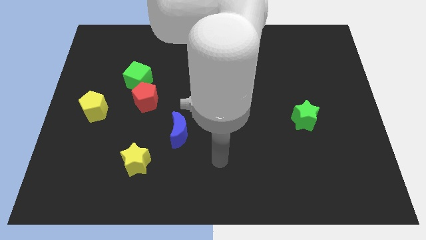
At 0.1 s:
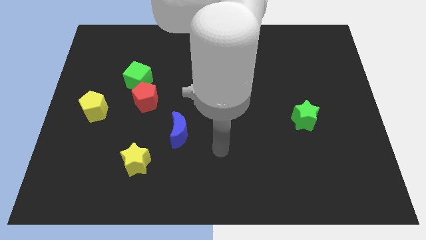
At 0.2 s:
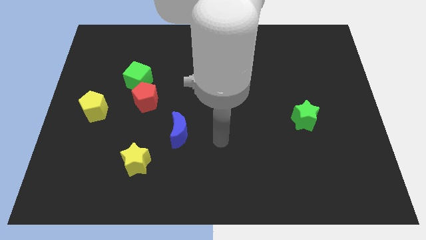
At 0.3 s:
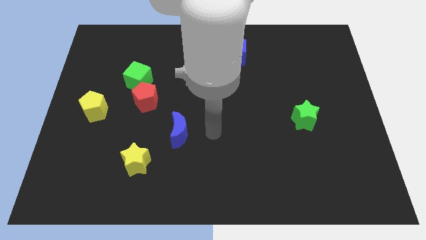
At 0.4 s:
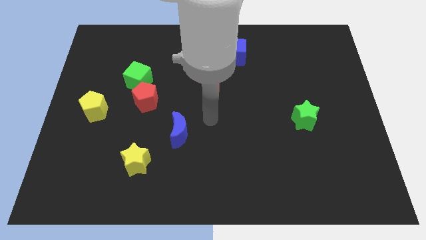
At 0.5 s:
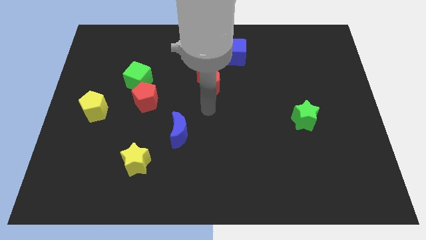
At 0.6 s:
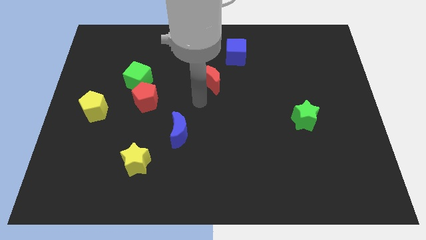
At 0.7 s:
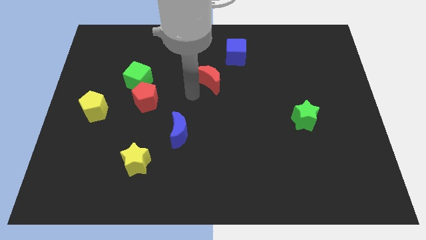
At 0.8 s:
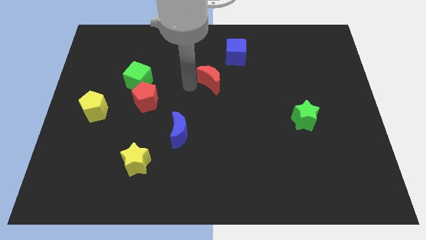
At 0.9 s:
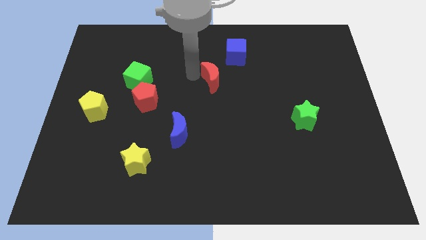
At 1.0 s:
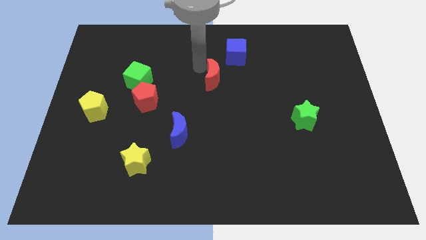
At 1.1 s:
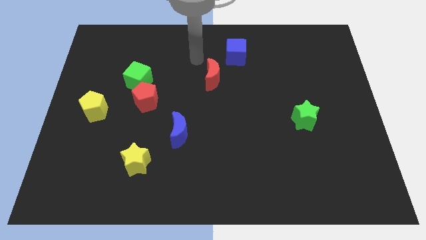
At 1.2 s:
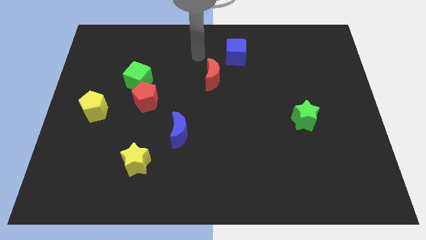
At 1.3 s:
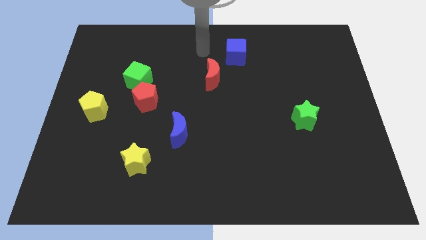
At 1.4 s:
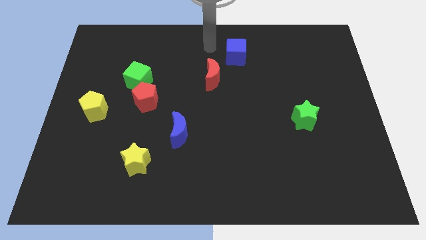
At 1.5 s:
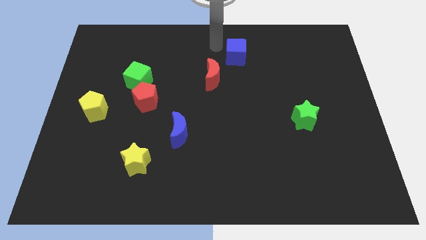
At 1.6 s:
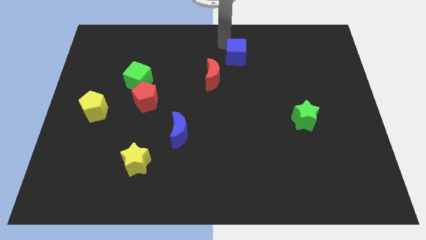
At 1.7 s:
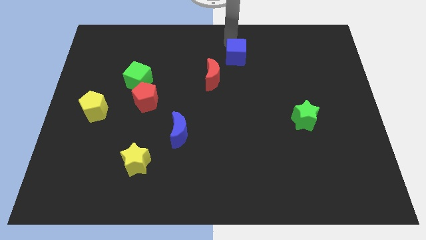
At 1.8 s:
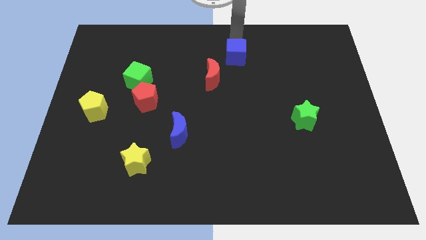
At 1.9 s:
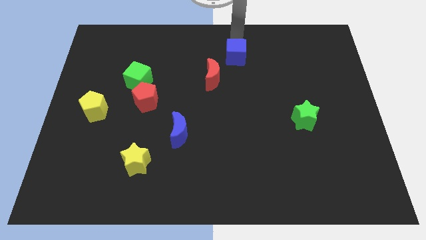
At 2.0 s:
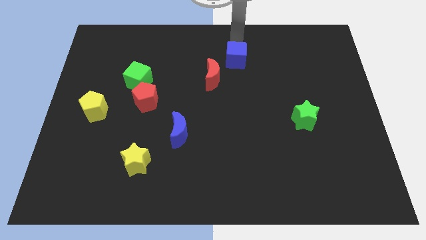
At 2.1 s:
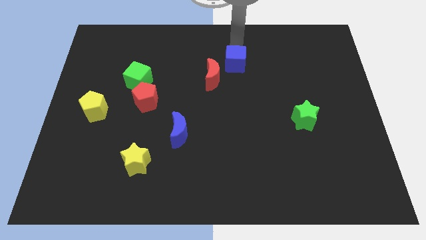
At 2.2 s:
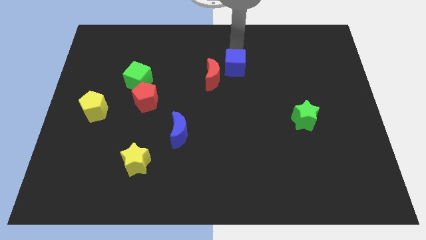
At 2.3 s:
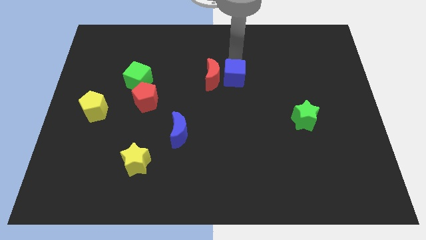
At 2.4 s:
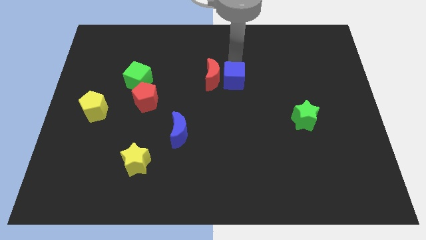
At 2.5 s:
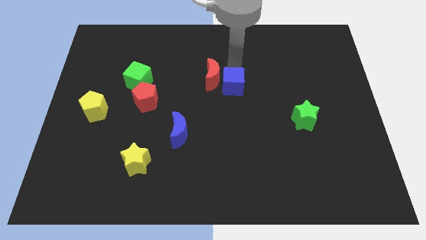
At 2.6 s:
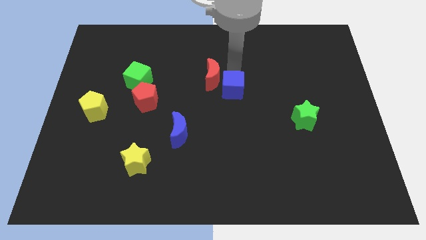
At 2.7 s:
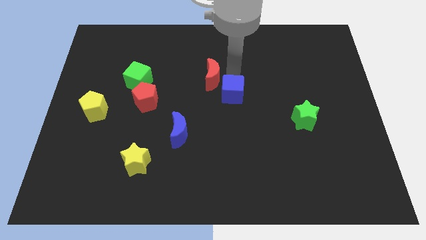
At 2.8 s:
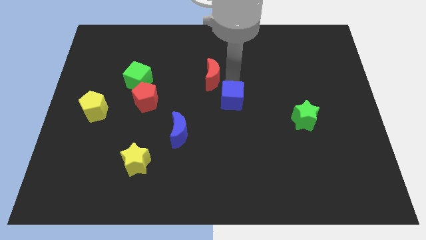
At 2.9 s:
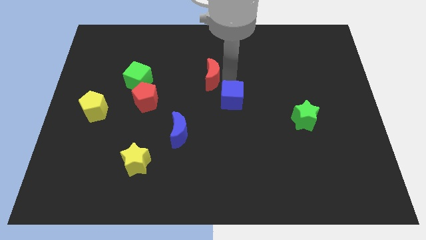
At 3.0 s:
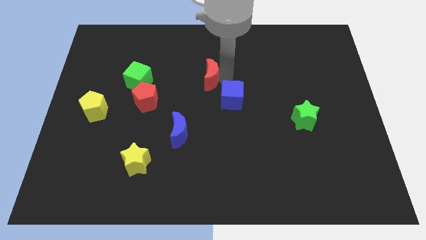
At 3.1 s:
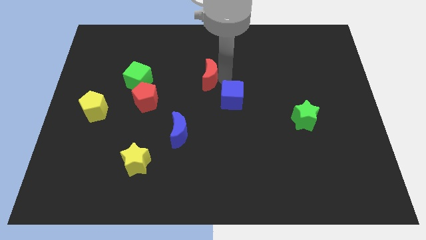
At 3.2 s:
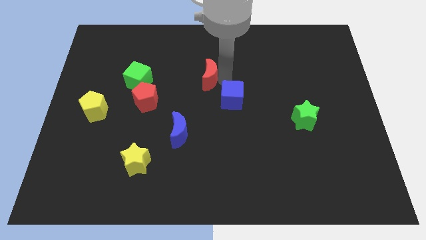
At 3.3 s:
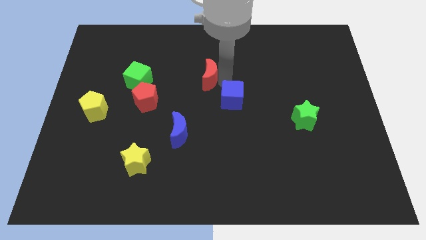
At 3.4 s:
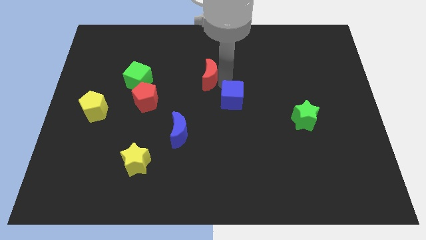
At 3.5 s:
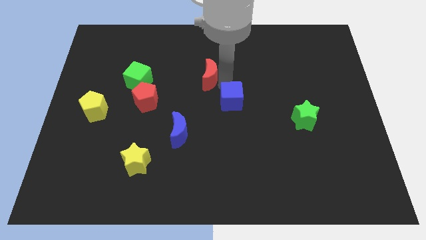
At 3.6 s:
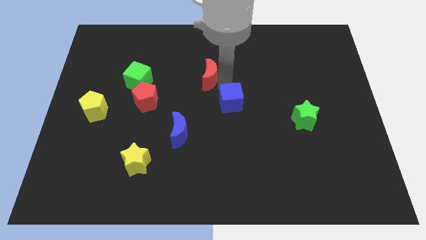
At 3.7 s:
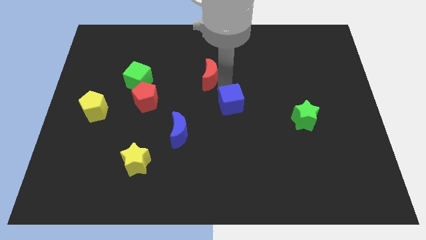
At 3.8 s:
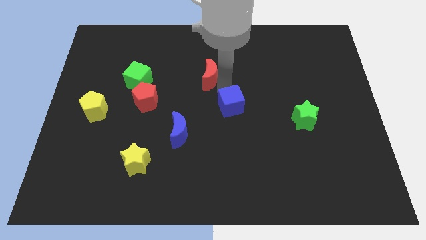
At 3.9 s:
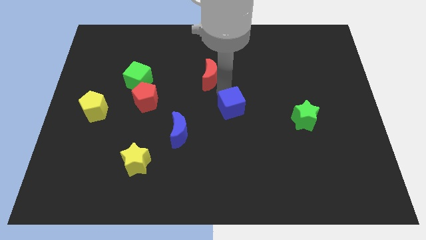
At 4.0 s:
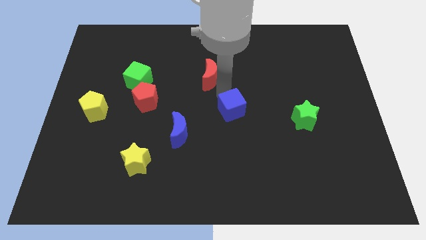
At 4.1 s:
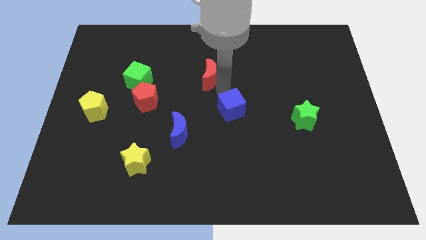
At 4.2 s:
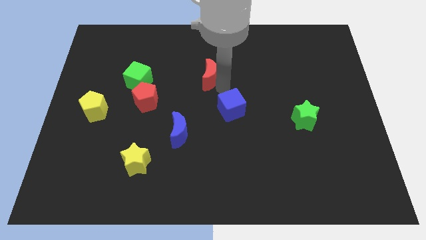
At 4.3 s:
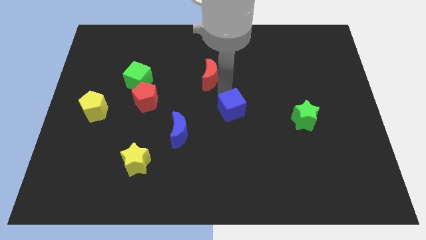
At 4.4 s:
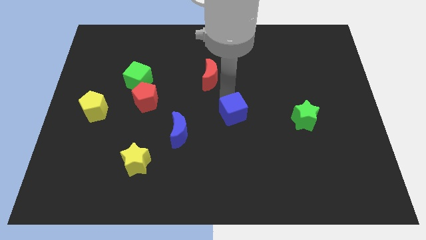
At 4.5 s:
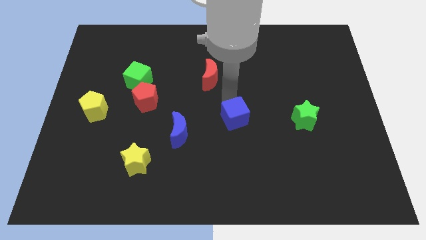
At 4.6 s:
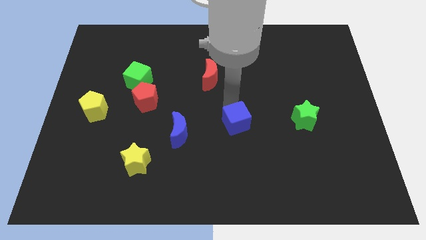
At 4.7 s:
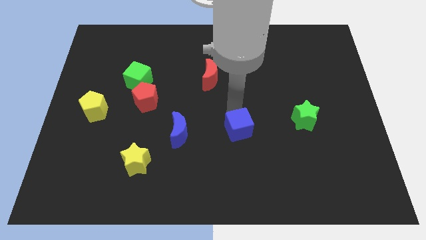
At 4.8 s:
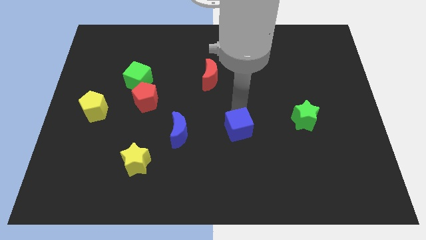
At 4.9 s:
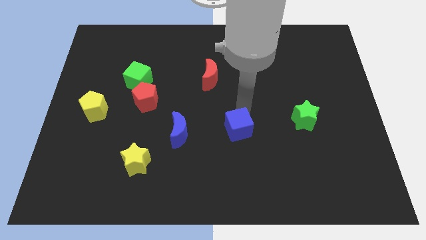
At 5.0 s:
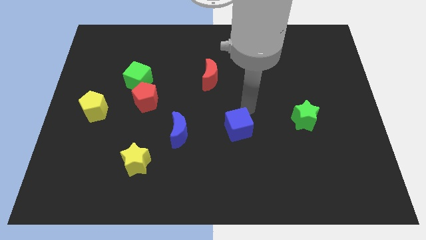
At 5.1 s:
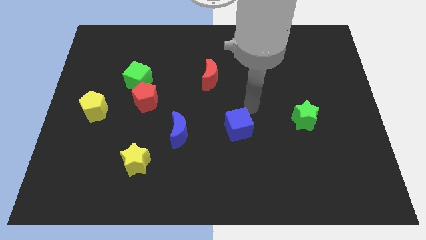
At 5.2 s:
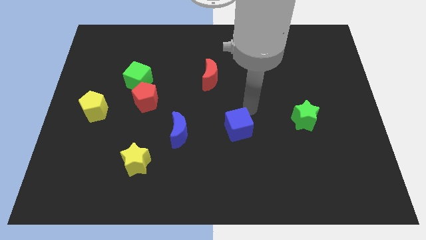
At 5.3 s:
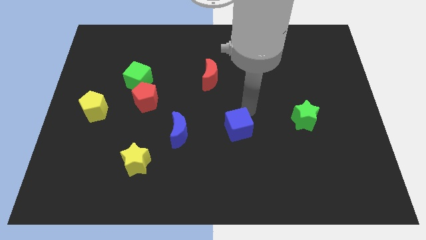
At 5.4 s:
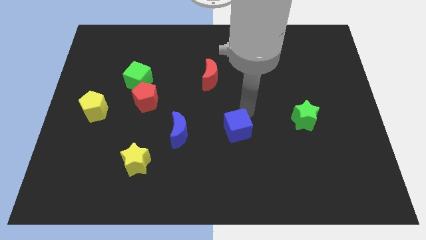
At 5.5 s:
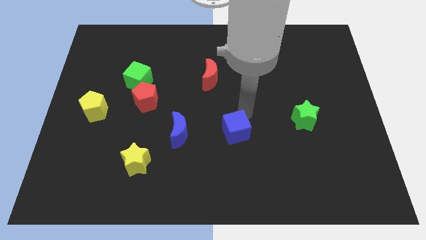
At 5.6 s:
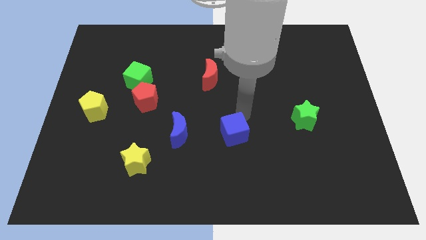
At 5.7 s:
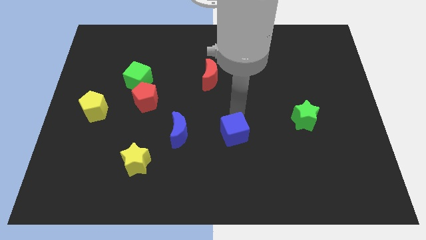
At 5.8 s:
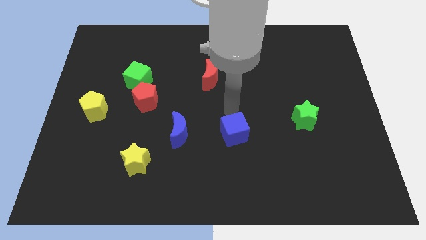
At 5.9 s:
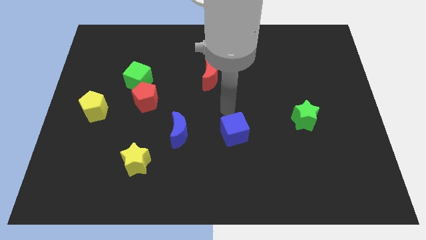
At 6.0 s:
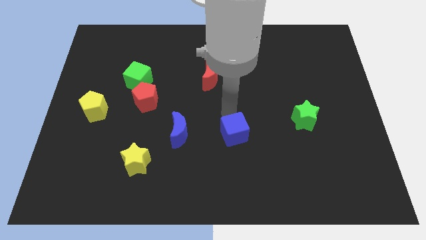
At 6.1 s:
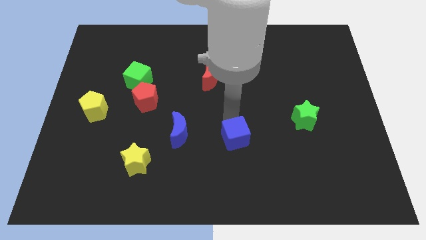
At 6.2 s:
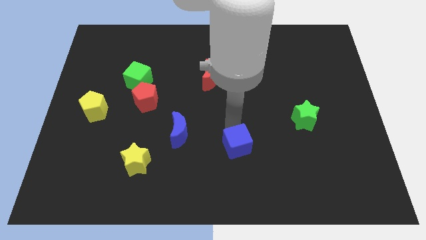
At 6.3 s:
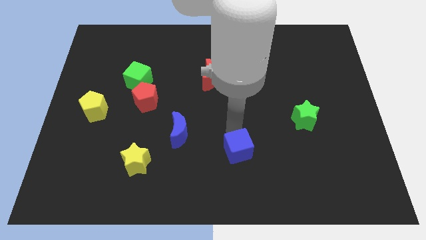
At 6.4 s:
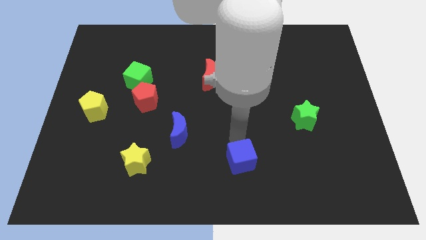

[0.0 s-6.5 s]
push the blue cube to the bottom
